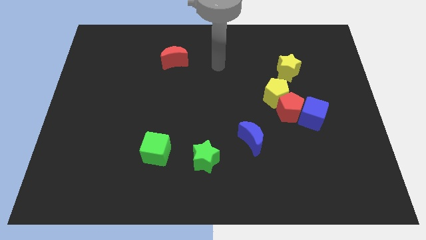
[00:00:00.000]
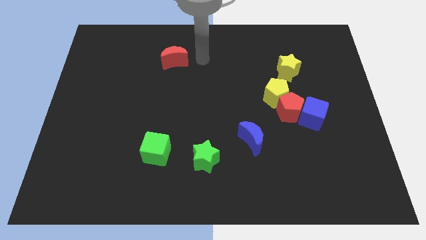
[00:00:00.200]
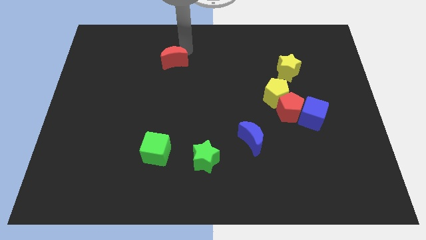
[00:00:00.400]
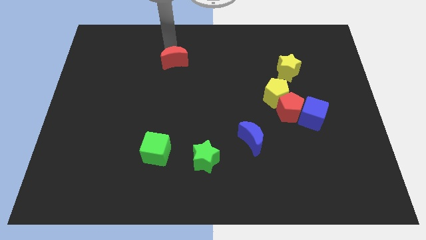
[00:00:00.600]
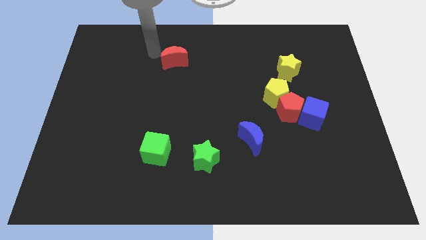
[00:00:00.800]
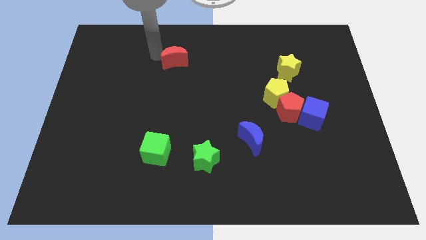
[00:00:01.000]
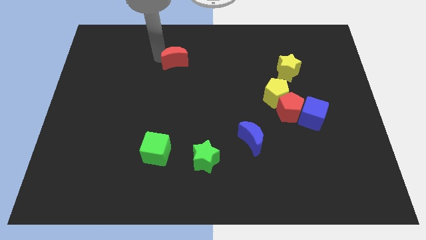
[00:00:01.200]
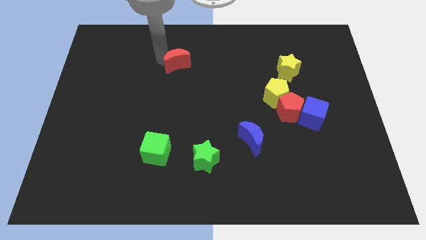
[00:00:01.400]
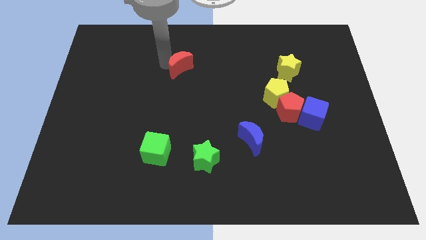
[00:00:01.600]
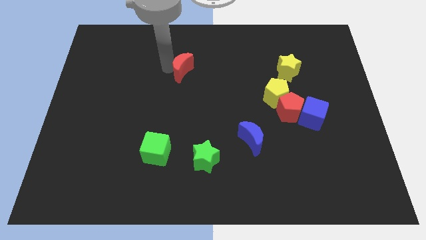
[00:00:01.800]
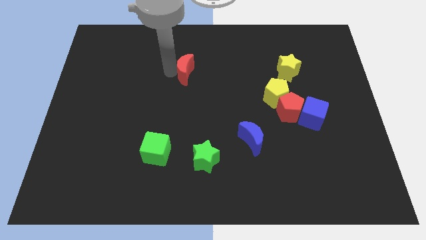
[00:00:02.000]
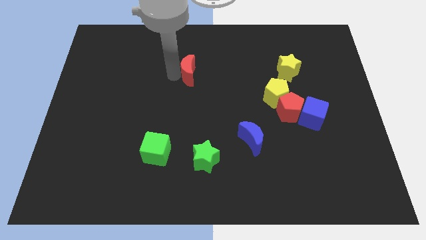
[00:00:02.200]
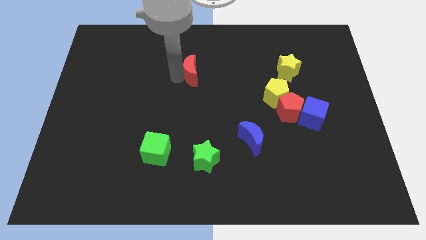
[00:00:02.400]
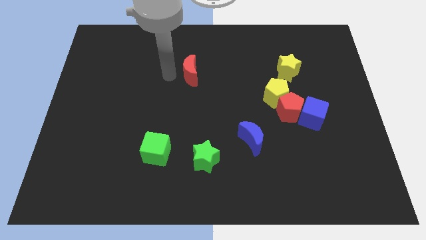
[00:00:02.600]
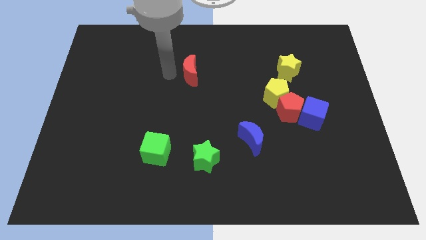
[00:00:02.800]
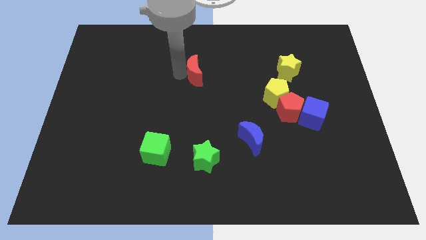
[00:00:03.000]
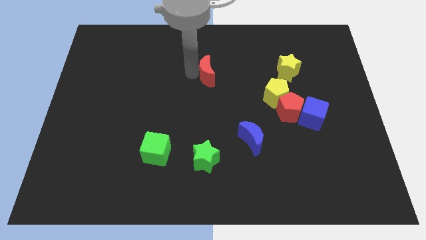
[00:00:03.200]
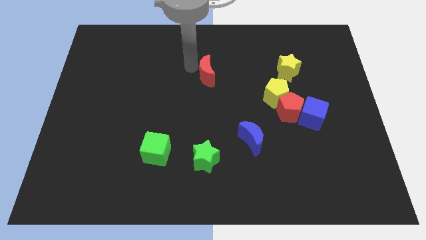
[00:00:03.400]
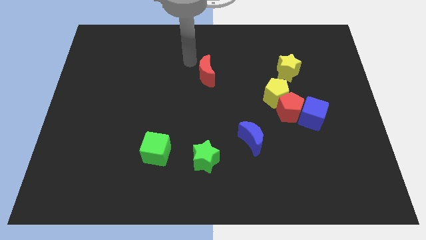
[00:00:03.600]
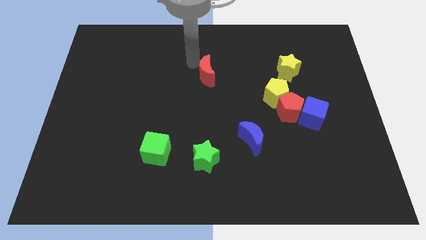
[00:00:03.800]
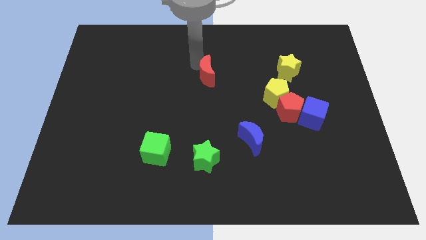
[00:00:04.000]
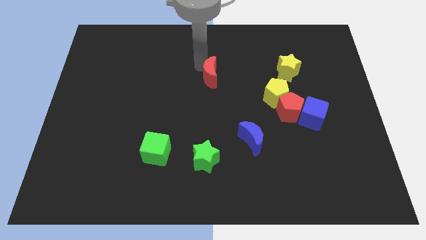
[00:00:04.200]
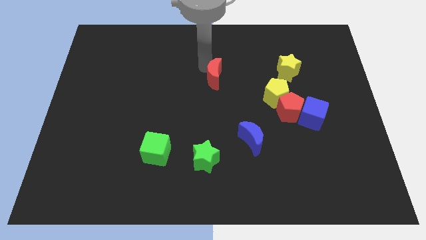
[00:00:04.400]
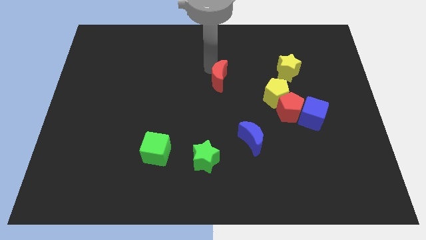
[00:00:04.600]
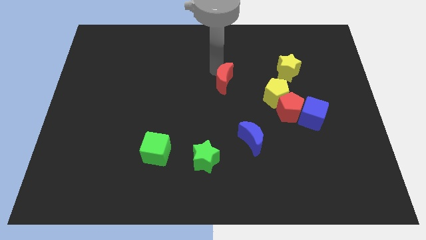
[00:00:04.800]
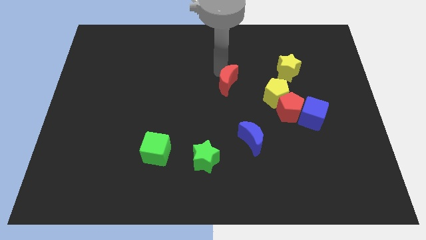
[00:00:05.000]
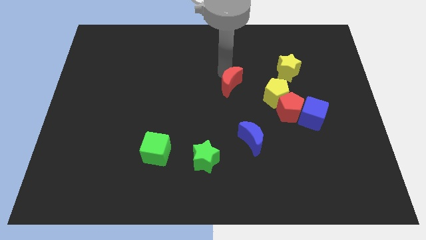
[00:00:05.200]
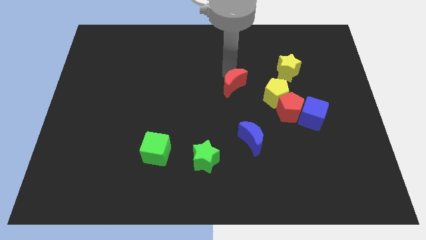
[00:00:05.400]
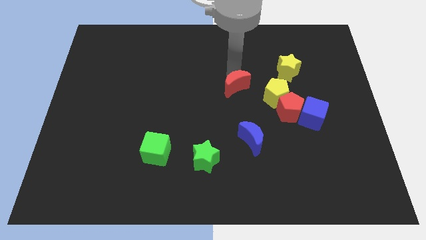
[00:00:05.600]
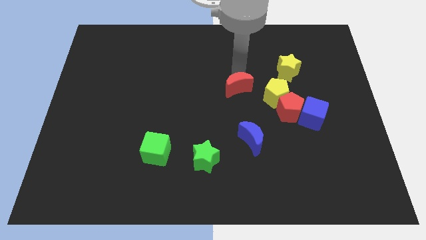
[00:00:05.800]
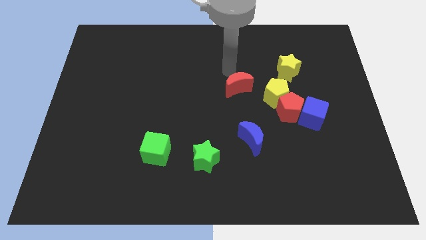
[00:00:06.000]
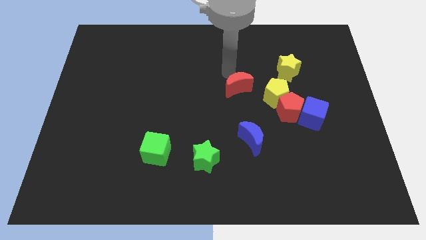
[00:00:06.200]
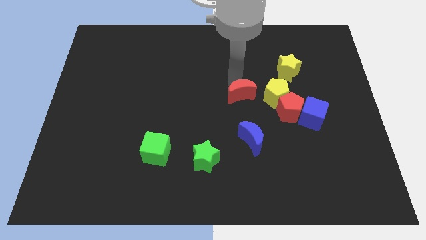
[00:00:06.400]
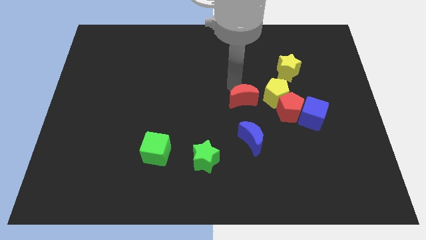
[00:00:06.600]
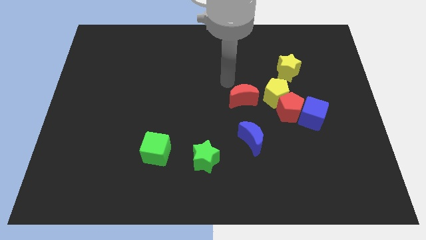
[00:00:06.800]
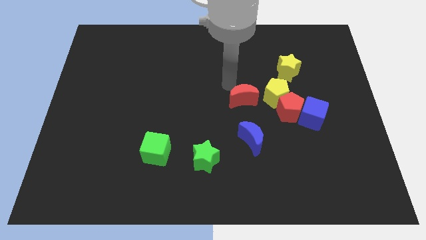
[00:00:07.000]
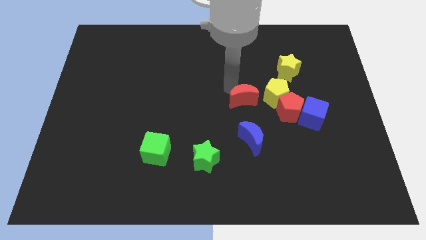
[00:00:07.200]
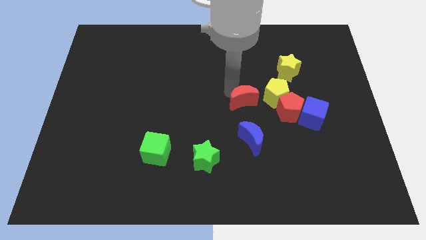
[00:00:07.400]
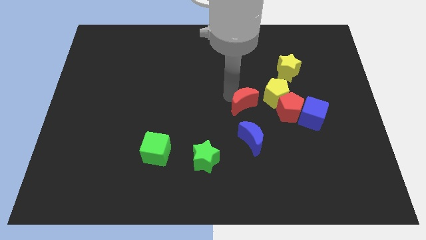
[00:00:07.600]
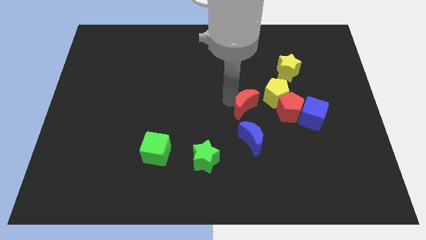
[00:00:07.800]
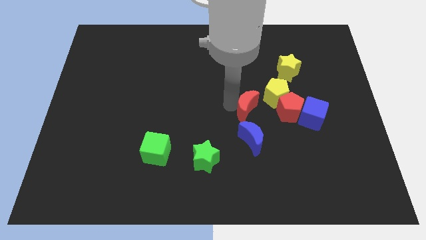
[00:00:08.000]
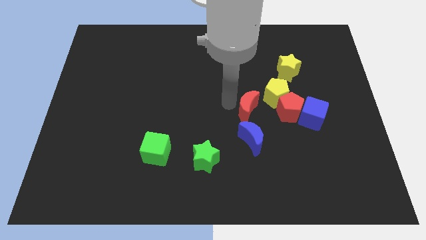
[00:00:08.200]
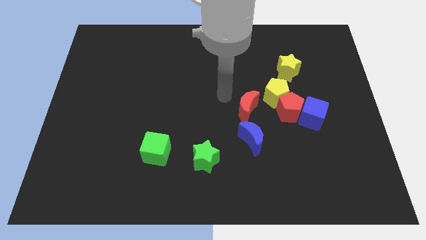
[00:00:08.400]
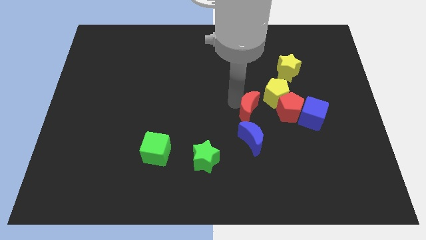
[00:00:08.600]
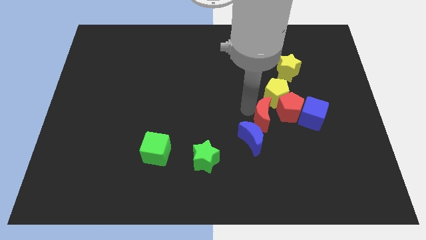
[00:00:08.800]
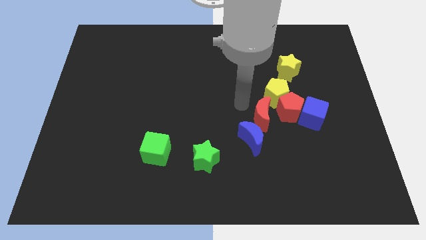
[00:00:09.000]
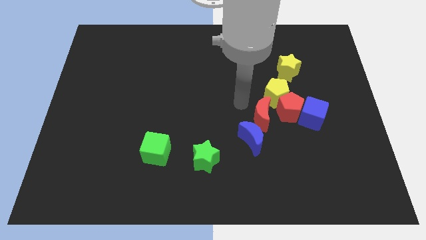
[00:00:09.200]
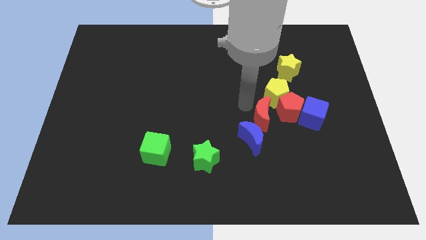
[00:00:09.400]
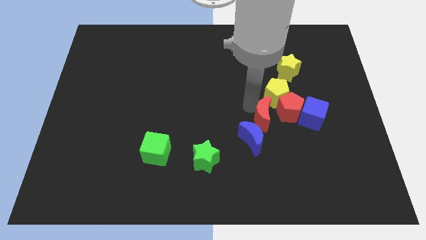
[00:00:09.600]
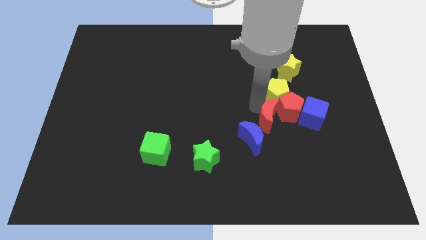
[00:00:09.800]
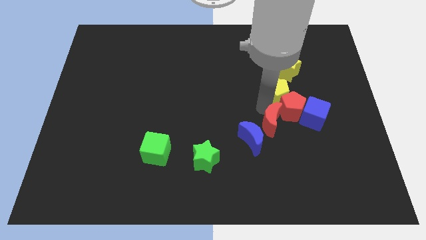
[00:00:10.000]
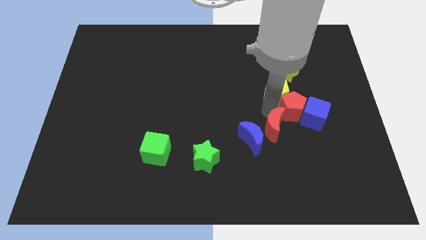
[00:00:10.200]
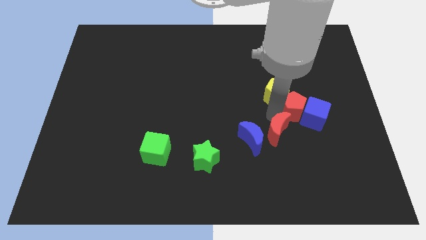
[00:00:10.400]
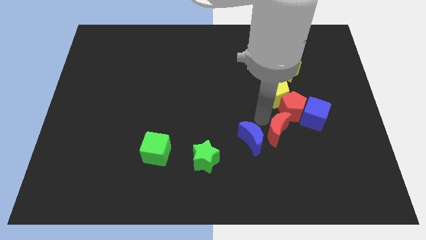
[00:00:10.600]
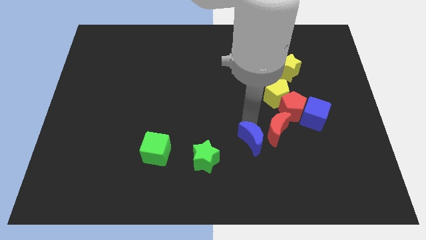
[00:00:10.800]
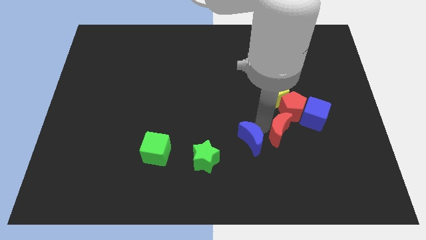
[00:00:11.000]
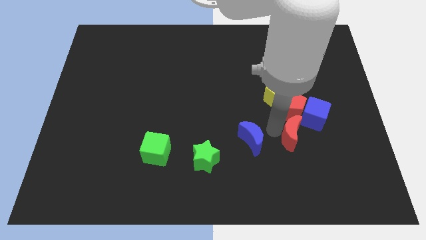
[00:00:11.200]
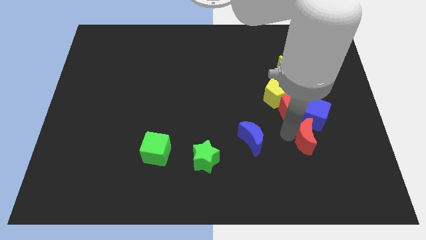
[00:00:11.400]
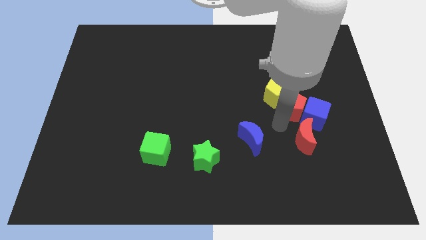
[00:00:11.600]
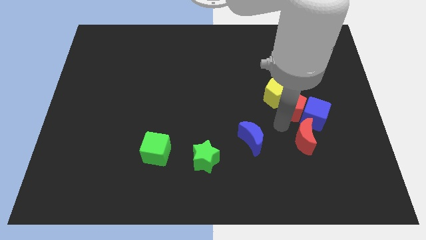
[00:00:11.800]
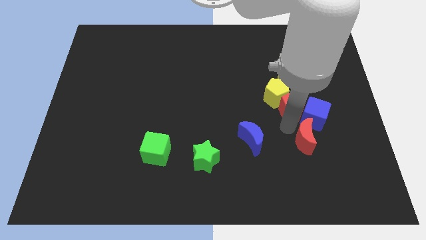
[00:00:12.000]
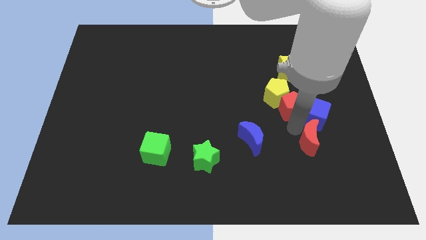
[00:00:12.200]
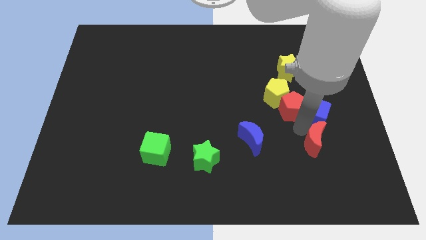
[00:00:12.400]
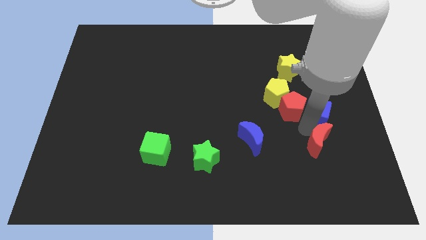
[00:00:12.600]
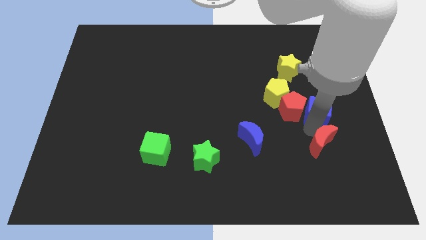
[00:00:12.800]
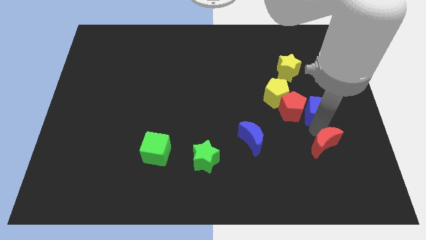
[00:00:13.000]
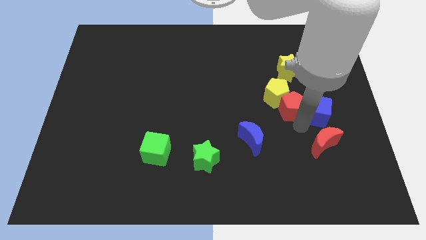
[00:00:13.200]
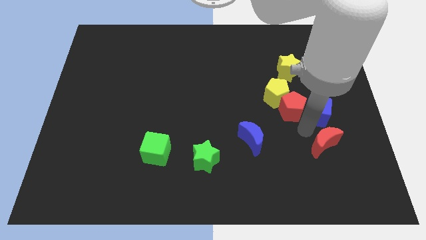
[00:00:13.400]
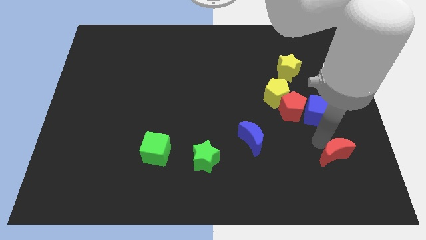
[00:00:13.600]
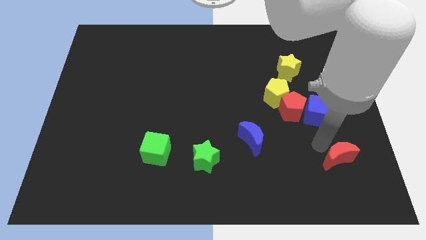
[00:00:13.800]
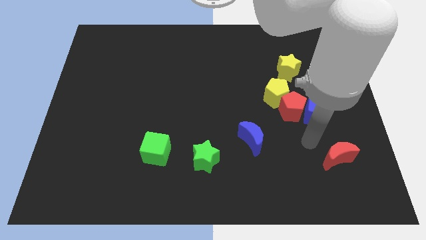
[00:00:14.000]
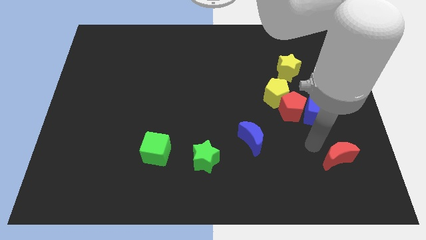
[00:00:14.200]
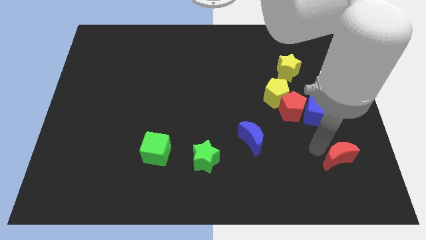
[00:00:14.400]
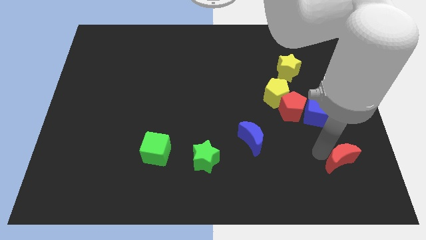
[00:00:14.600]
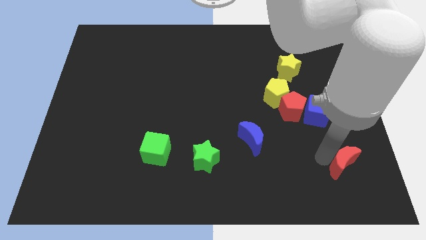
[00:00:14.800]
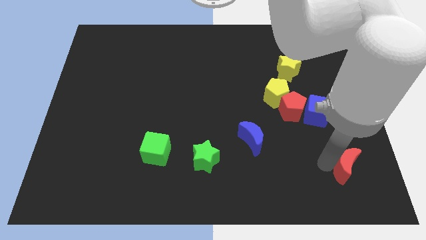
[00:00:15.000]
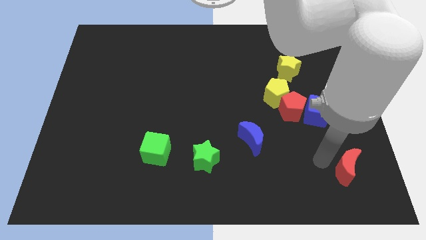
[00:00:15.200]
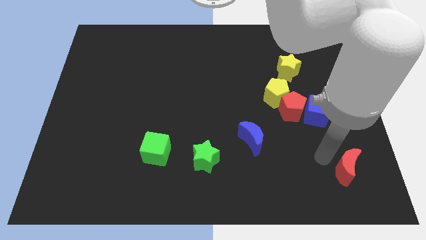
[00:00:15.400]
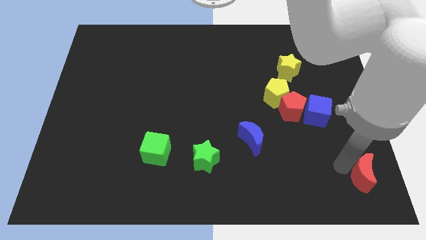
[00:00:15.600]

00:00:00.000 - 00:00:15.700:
move the red moon to the lower right corner
